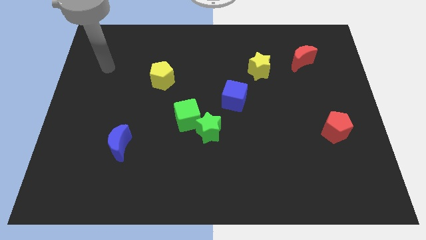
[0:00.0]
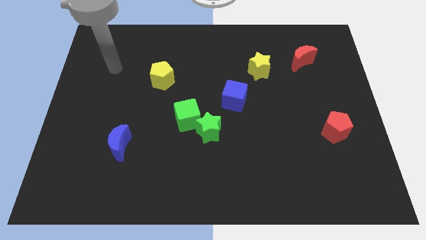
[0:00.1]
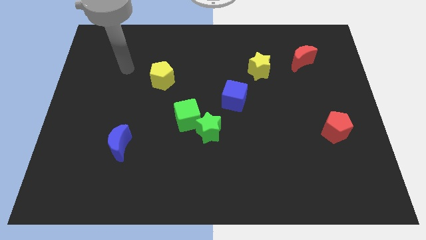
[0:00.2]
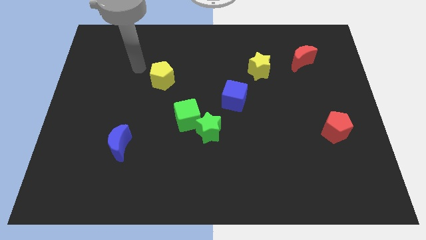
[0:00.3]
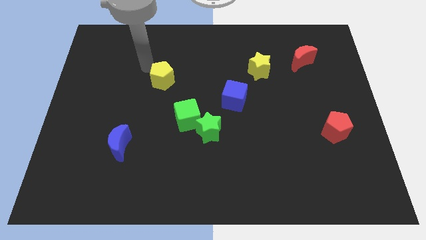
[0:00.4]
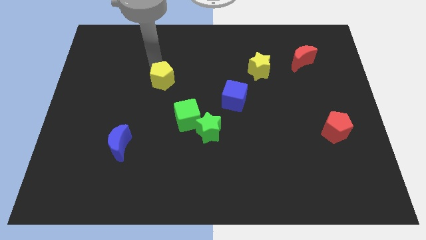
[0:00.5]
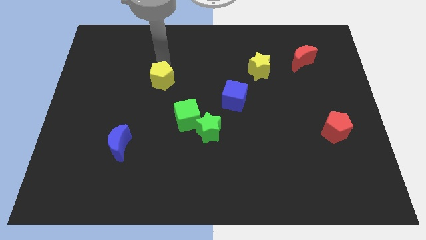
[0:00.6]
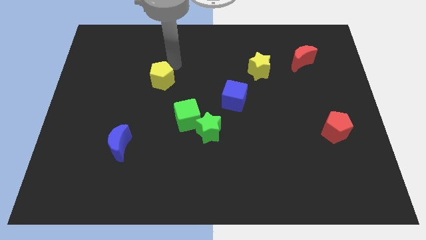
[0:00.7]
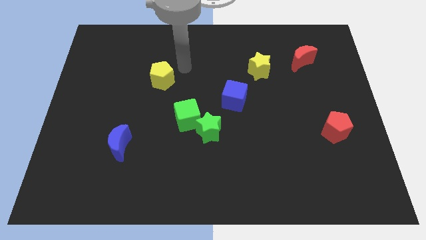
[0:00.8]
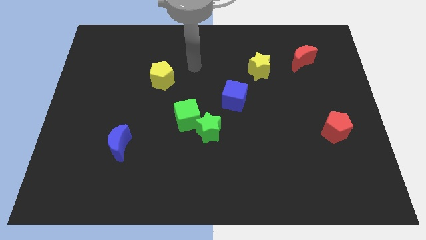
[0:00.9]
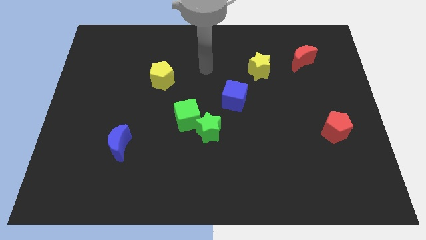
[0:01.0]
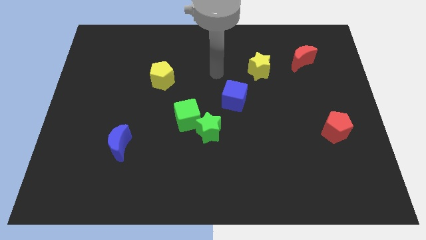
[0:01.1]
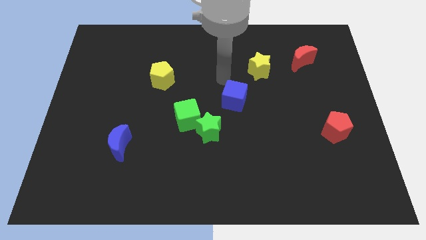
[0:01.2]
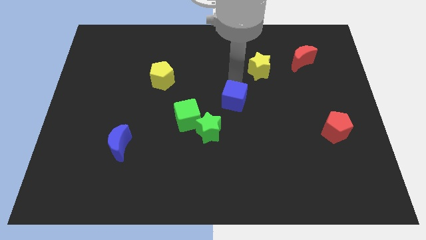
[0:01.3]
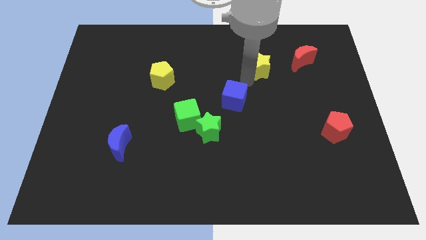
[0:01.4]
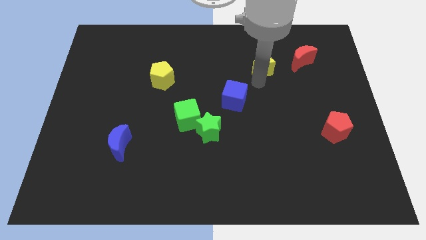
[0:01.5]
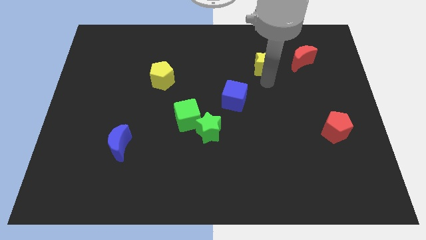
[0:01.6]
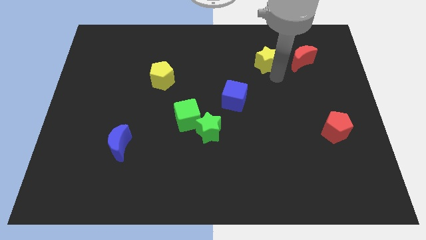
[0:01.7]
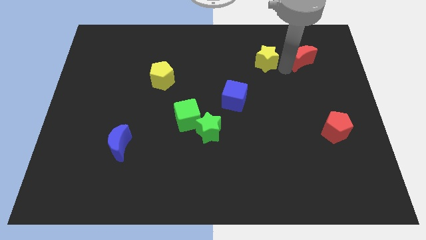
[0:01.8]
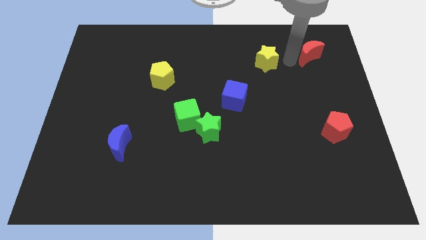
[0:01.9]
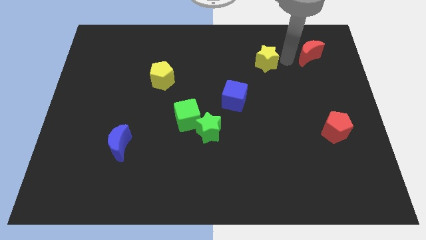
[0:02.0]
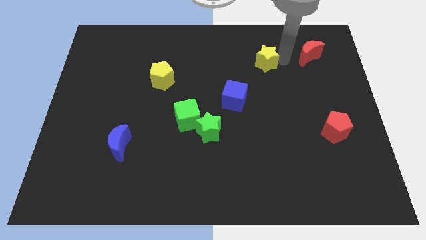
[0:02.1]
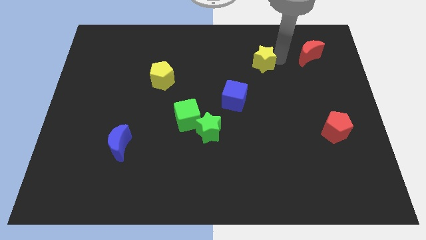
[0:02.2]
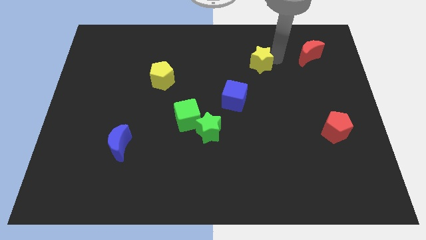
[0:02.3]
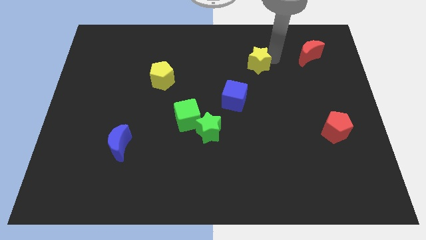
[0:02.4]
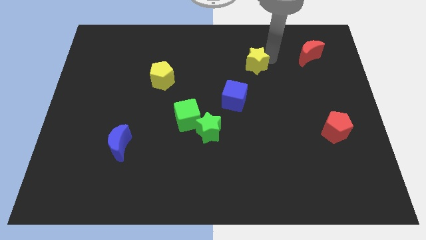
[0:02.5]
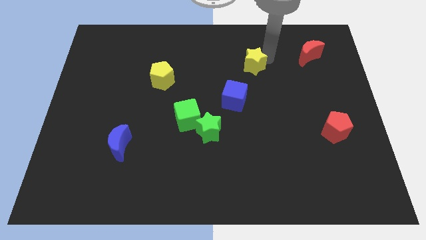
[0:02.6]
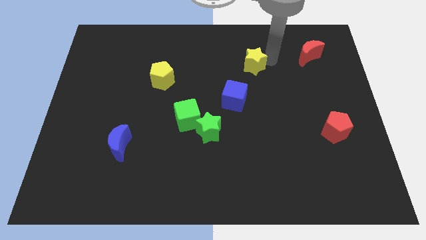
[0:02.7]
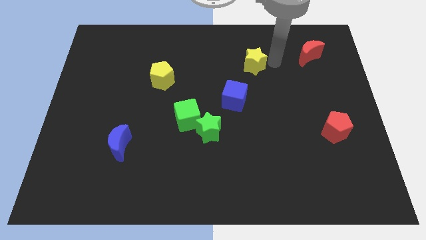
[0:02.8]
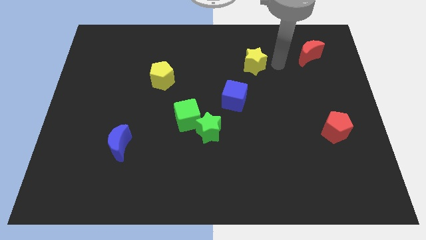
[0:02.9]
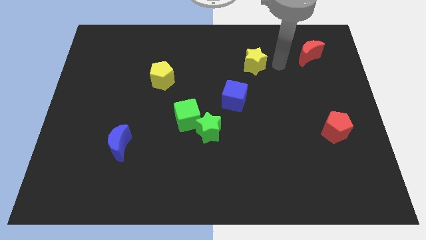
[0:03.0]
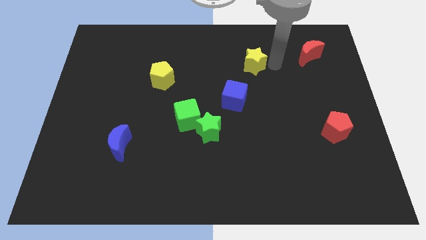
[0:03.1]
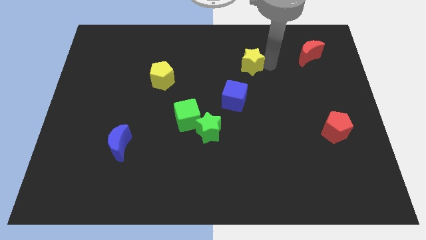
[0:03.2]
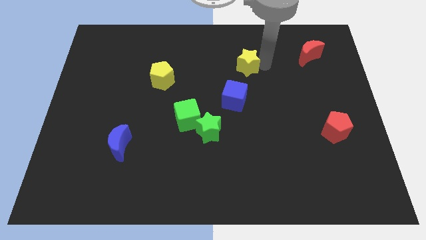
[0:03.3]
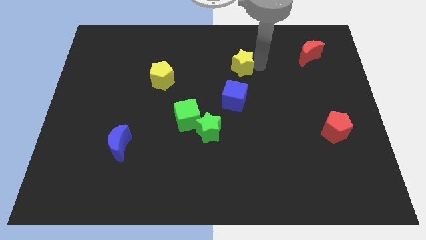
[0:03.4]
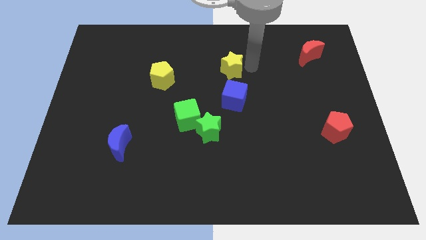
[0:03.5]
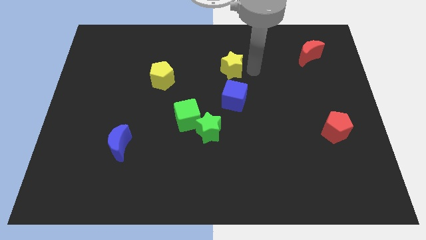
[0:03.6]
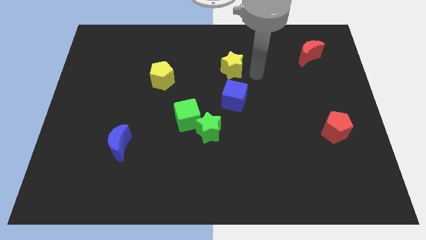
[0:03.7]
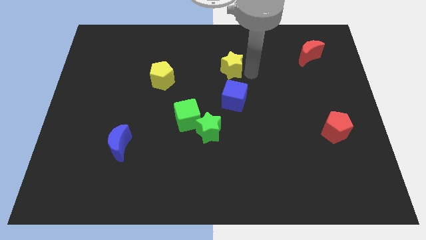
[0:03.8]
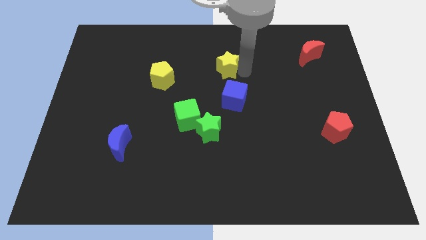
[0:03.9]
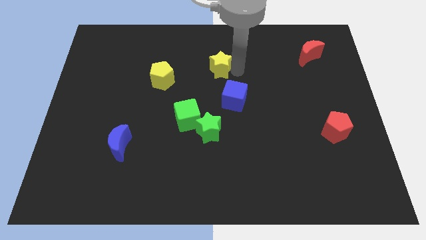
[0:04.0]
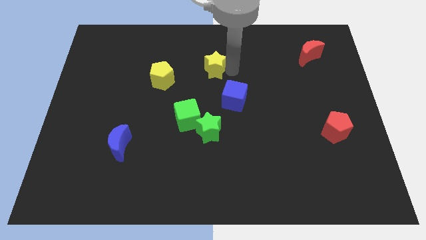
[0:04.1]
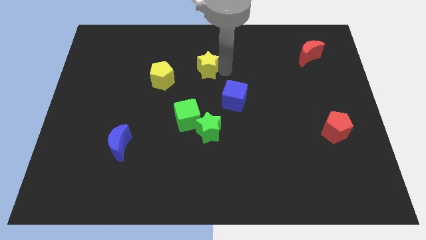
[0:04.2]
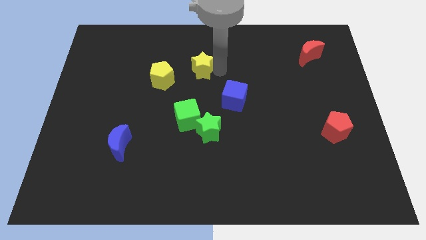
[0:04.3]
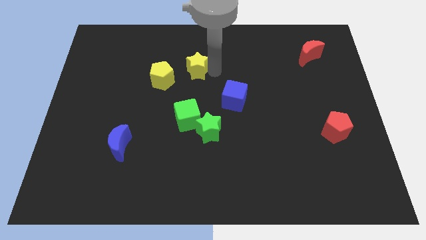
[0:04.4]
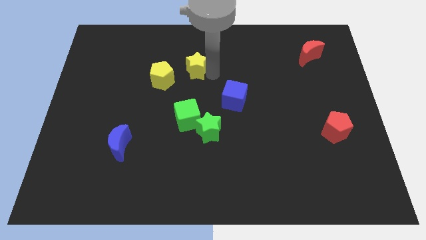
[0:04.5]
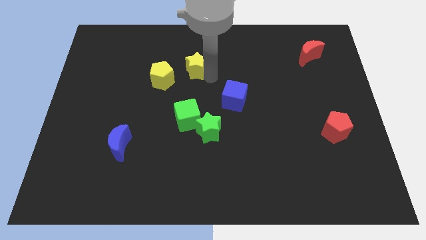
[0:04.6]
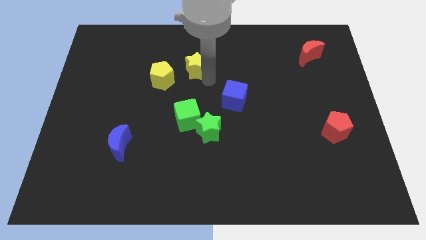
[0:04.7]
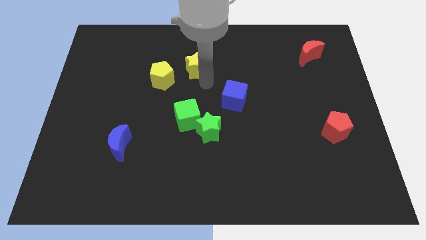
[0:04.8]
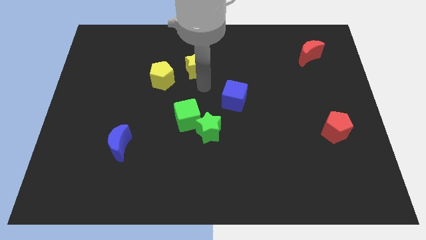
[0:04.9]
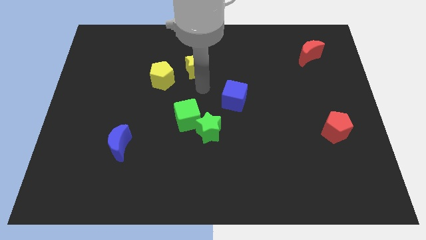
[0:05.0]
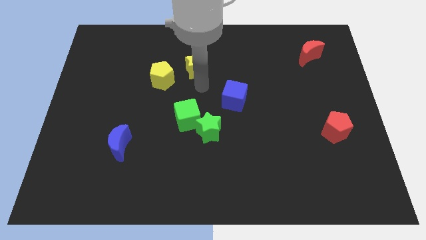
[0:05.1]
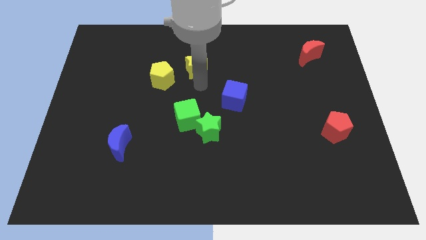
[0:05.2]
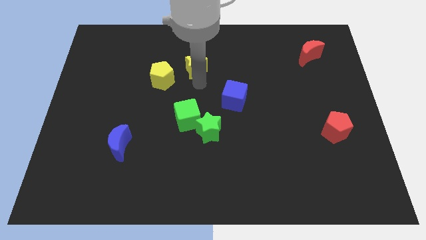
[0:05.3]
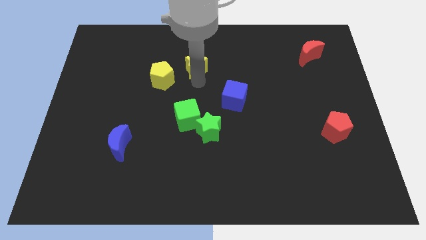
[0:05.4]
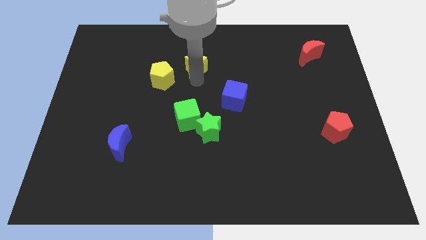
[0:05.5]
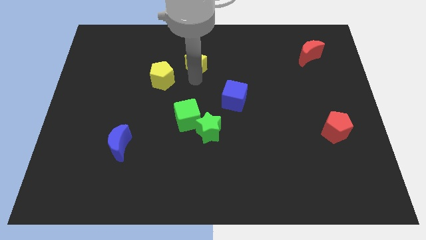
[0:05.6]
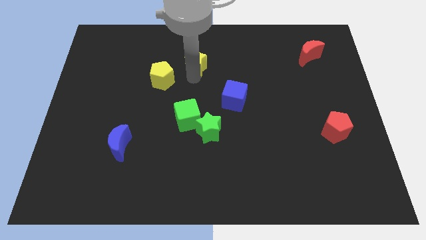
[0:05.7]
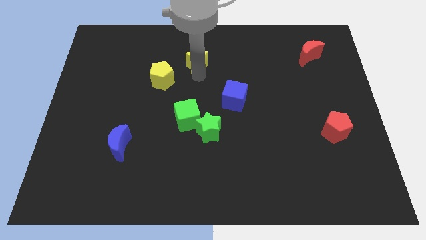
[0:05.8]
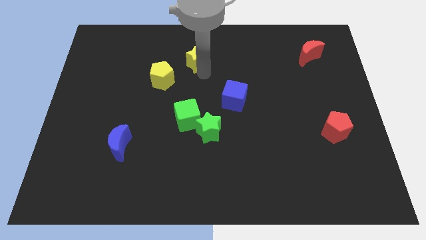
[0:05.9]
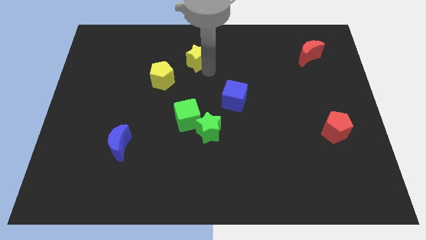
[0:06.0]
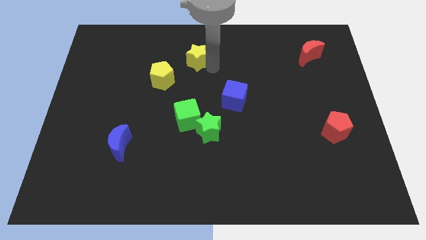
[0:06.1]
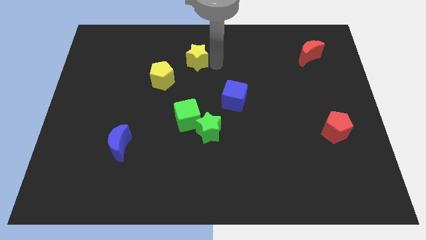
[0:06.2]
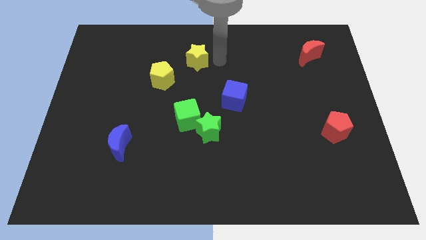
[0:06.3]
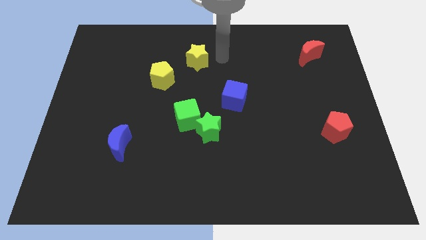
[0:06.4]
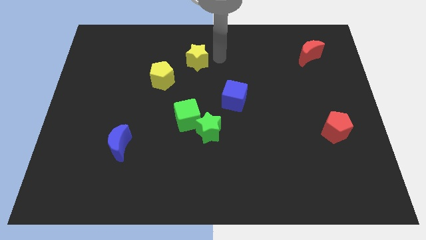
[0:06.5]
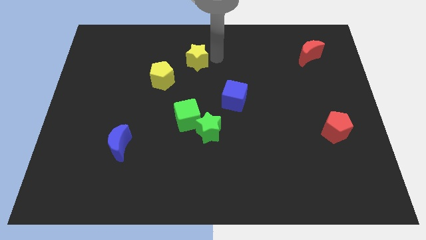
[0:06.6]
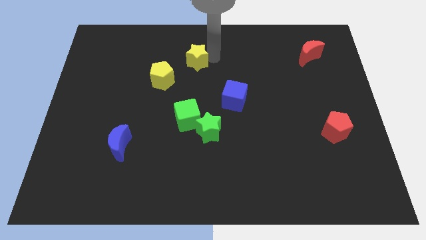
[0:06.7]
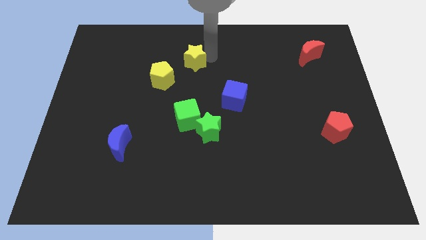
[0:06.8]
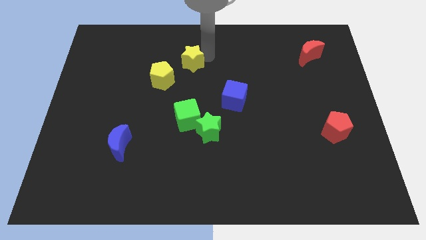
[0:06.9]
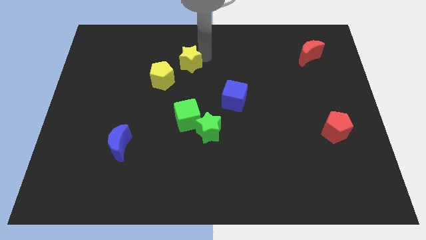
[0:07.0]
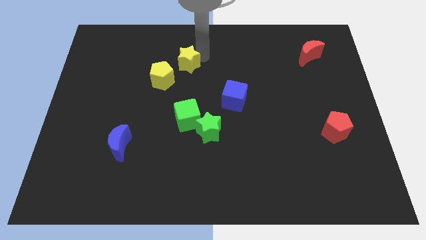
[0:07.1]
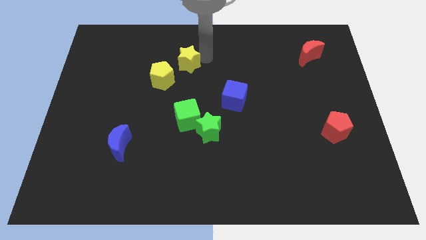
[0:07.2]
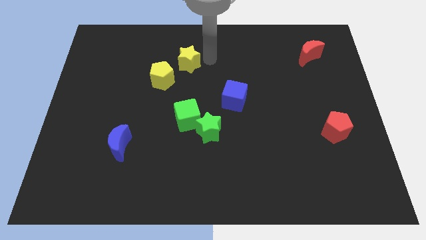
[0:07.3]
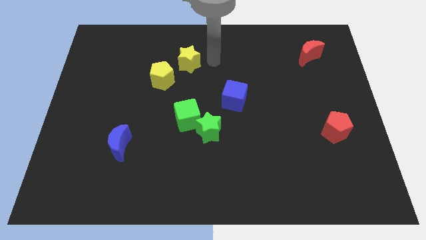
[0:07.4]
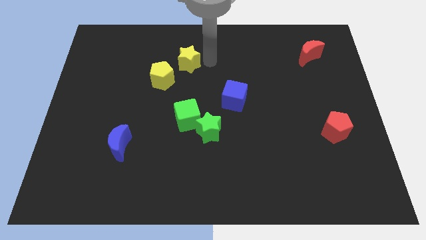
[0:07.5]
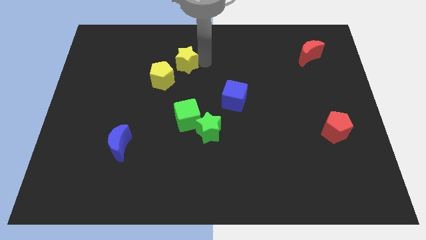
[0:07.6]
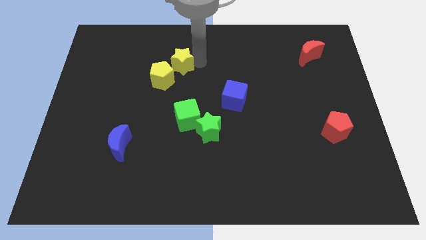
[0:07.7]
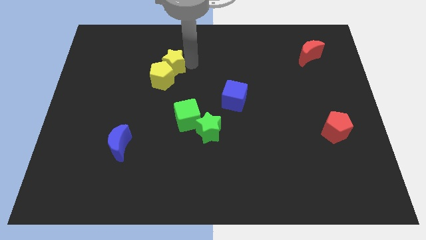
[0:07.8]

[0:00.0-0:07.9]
slide the yellow star left
